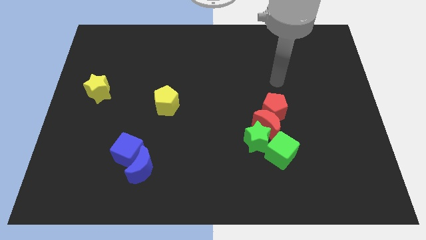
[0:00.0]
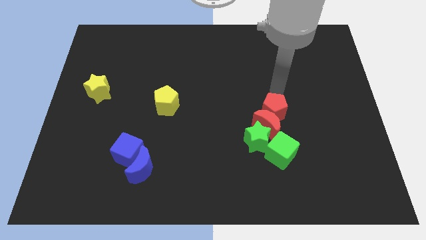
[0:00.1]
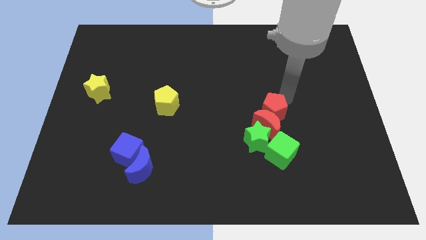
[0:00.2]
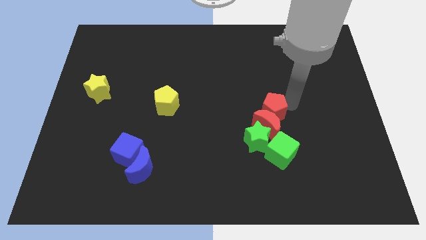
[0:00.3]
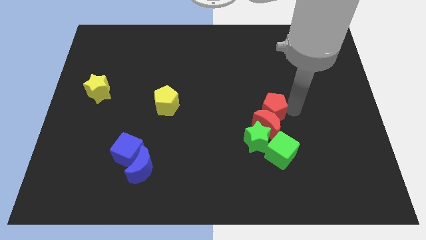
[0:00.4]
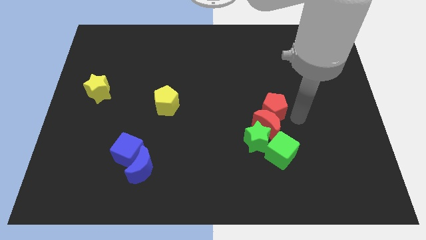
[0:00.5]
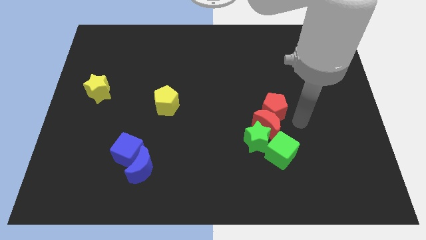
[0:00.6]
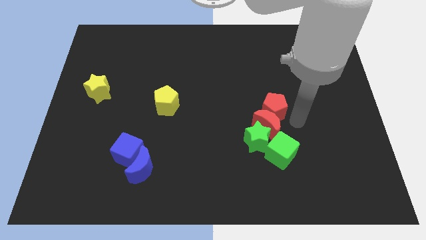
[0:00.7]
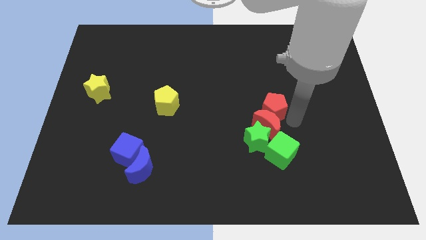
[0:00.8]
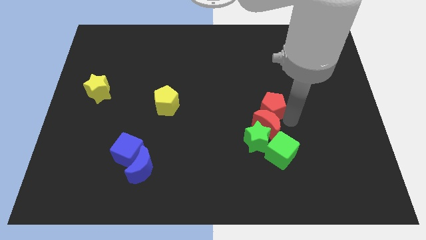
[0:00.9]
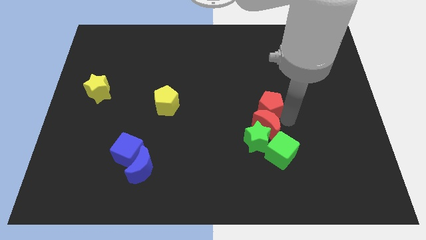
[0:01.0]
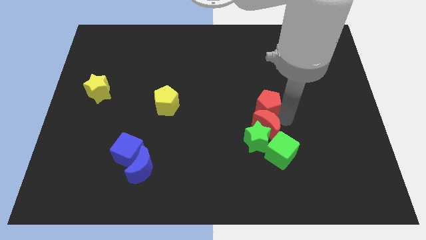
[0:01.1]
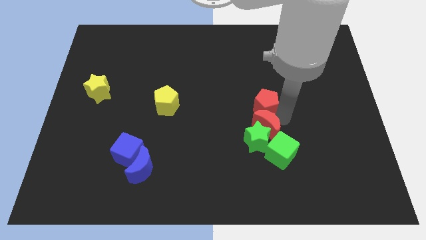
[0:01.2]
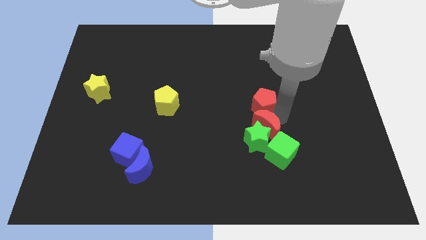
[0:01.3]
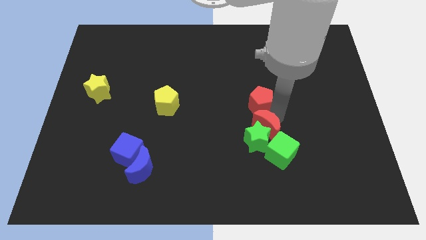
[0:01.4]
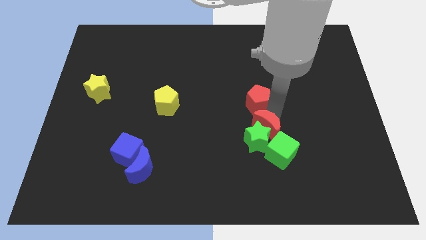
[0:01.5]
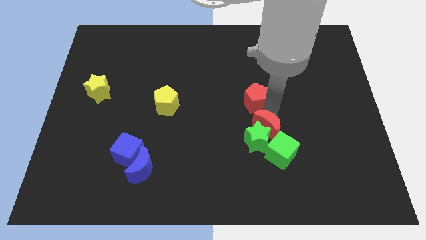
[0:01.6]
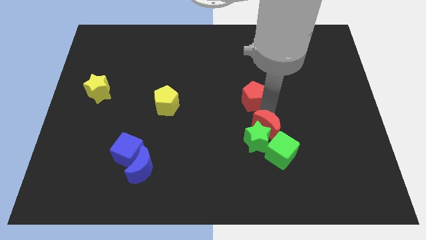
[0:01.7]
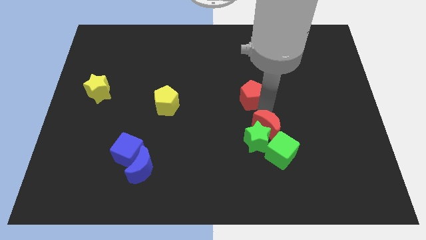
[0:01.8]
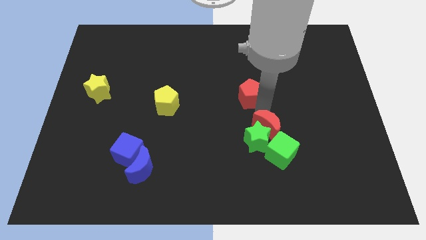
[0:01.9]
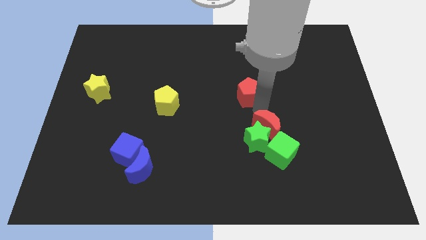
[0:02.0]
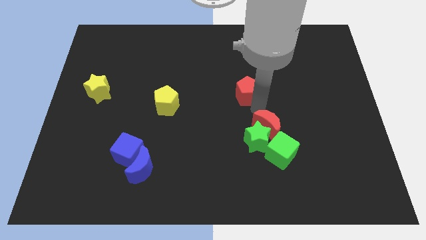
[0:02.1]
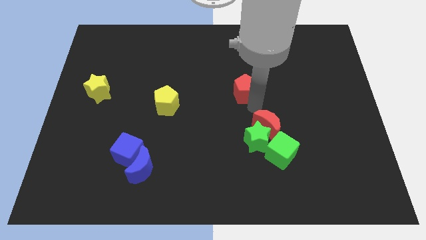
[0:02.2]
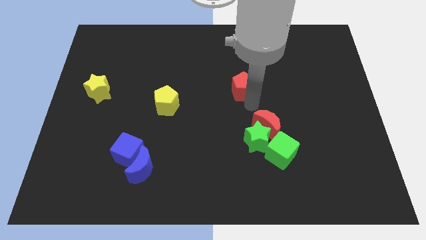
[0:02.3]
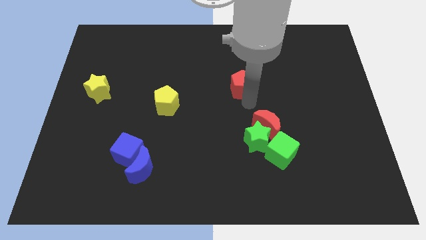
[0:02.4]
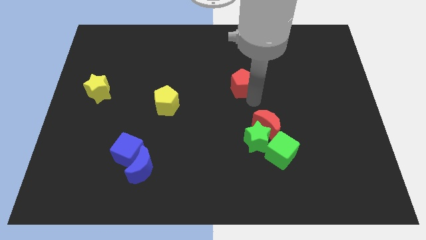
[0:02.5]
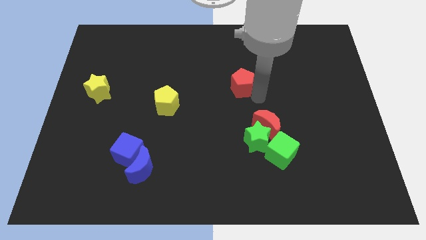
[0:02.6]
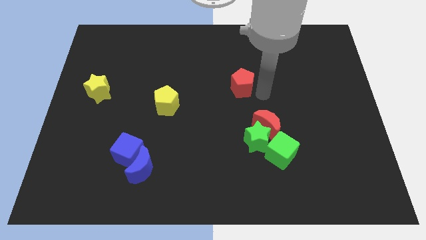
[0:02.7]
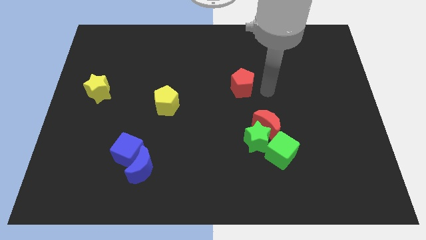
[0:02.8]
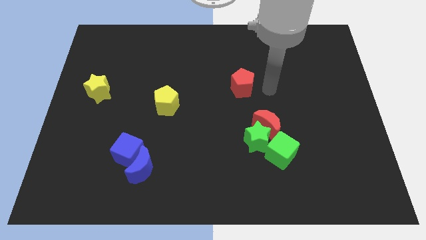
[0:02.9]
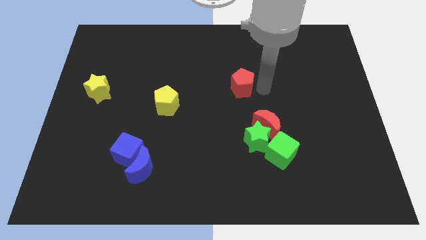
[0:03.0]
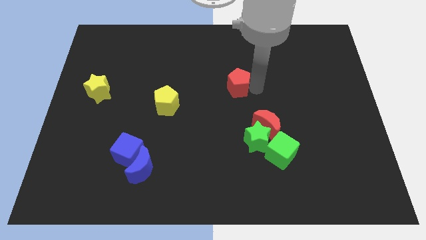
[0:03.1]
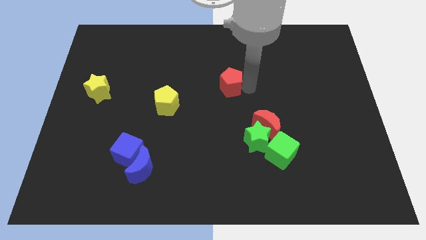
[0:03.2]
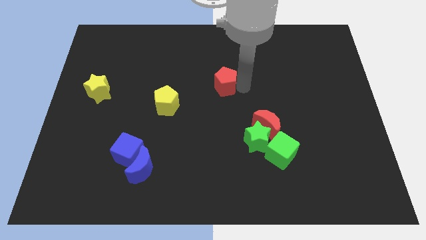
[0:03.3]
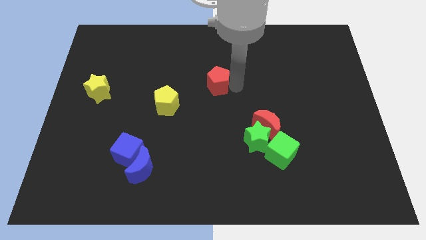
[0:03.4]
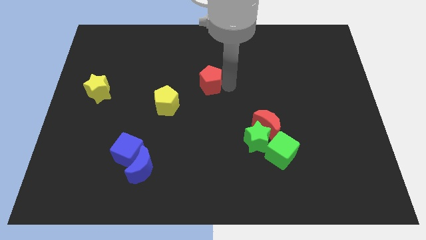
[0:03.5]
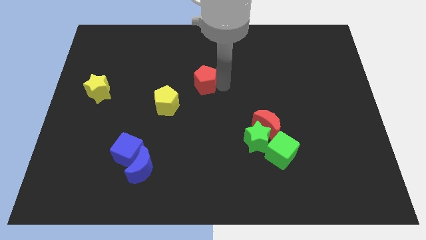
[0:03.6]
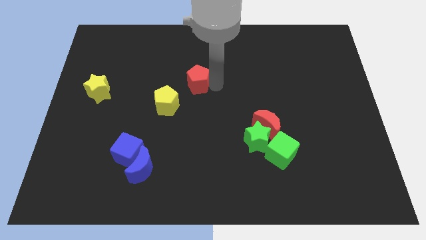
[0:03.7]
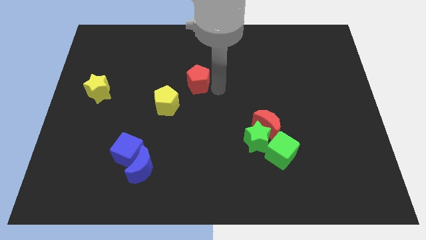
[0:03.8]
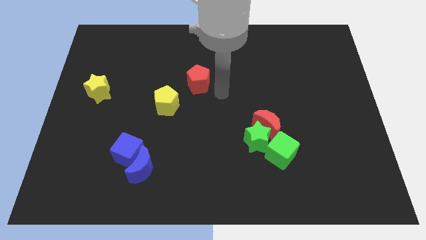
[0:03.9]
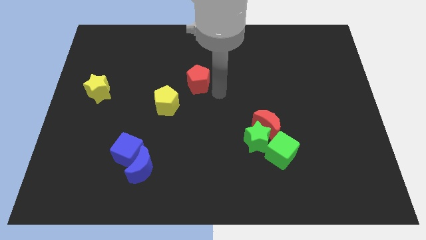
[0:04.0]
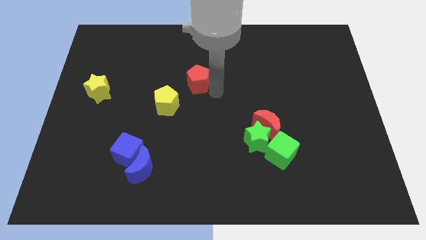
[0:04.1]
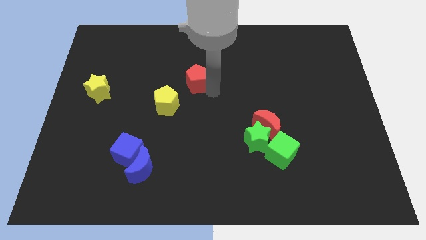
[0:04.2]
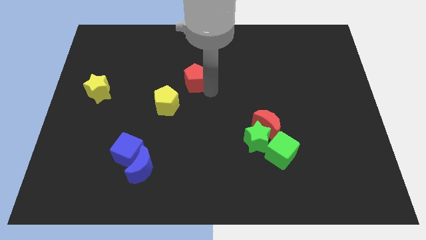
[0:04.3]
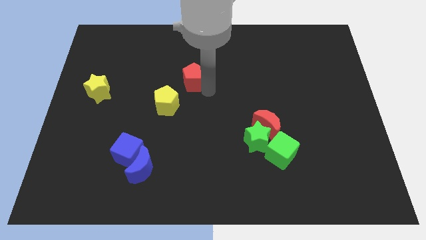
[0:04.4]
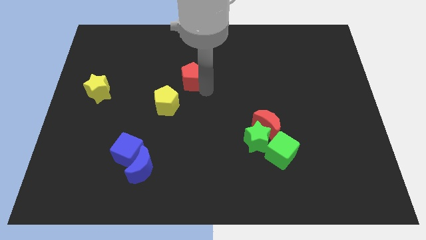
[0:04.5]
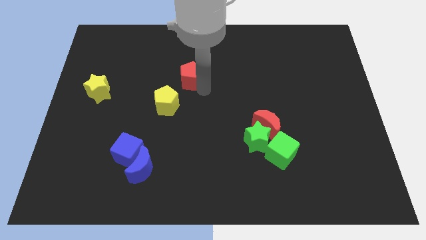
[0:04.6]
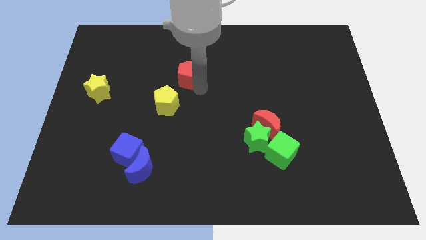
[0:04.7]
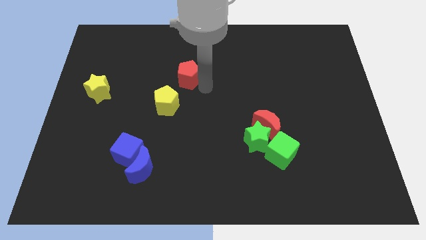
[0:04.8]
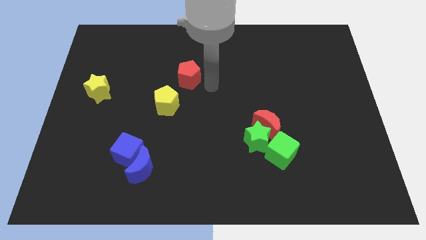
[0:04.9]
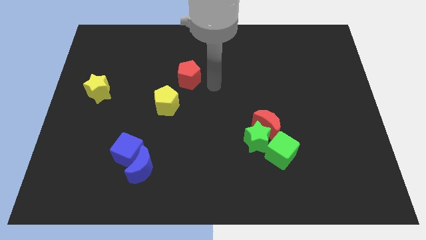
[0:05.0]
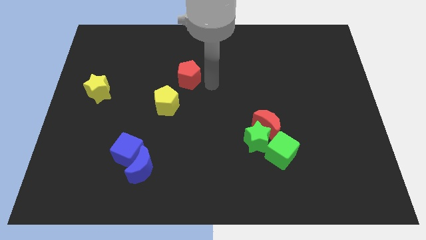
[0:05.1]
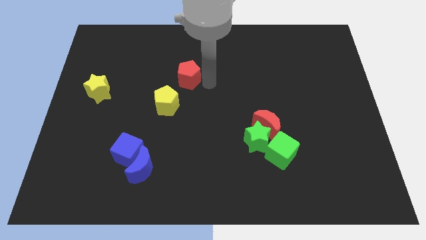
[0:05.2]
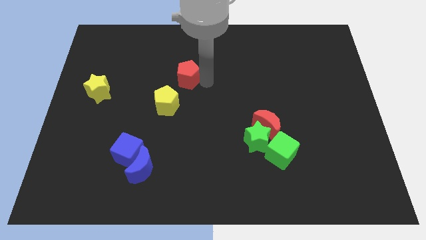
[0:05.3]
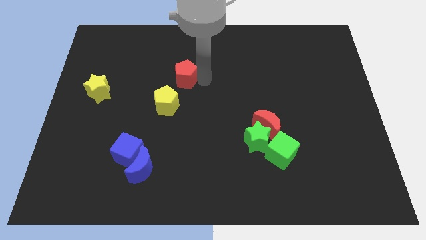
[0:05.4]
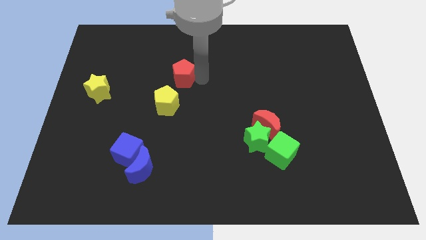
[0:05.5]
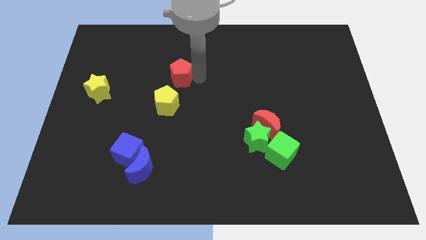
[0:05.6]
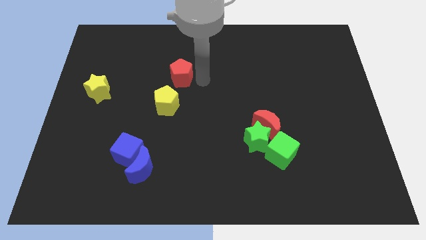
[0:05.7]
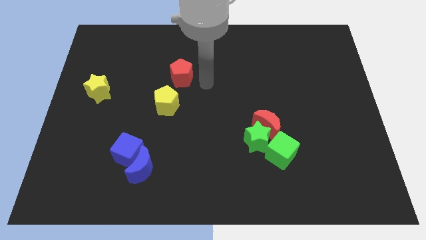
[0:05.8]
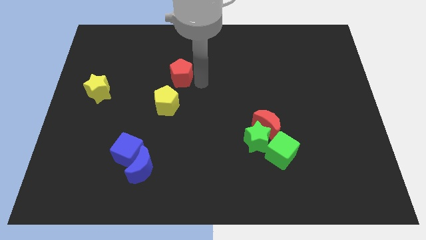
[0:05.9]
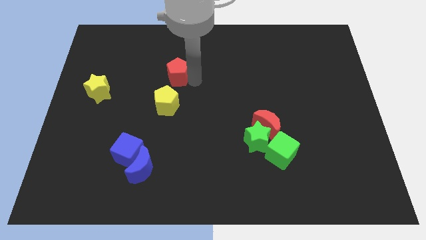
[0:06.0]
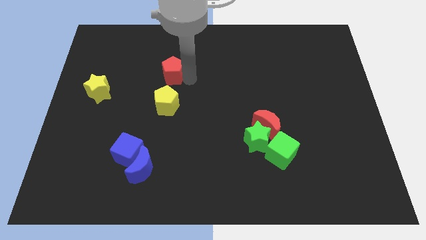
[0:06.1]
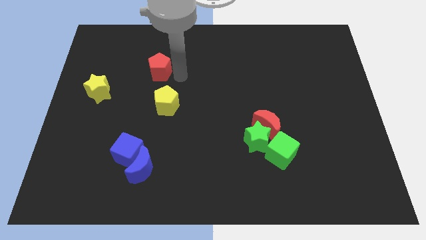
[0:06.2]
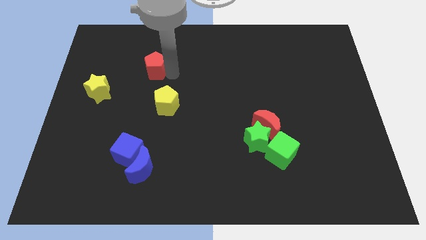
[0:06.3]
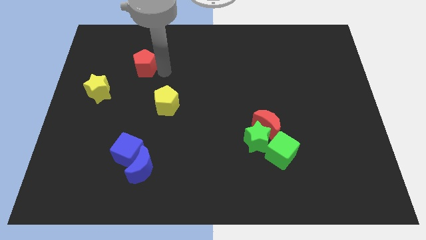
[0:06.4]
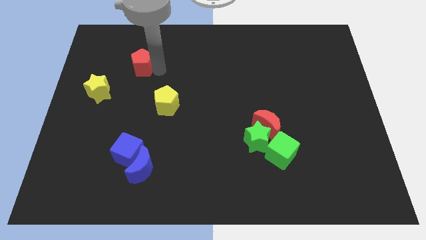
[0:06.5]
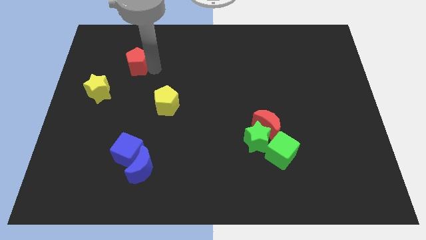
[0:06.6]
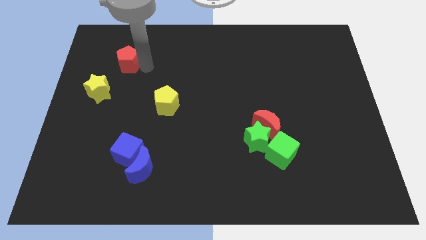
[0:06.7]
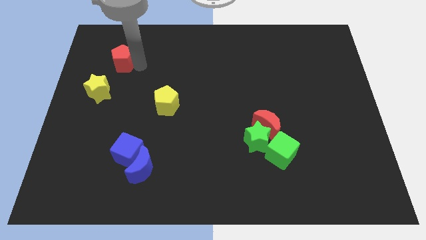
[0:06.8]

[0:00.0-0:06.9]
push the red pentagon to the top side of the yellow star
